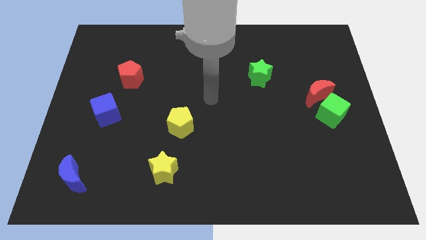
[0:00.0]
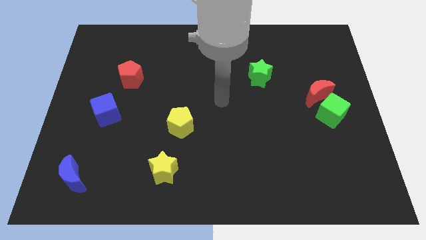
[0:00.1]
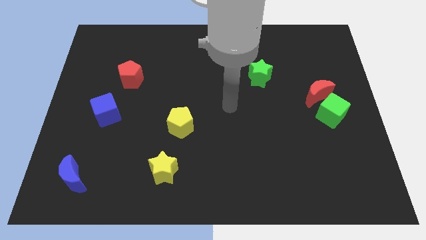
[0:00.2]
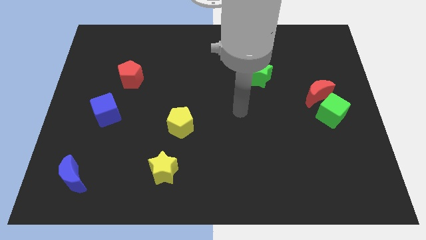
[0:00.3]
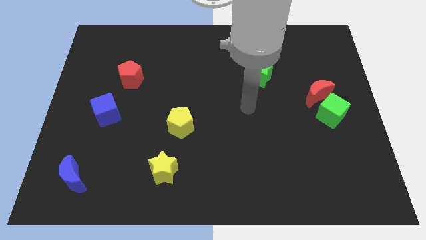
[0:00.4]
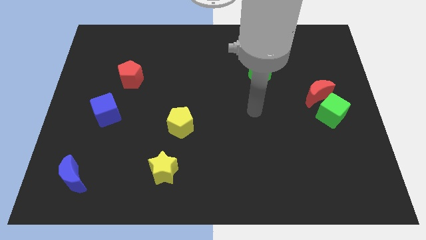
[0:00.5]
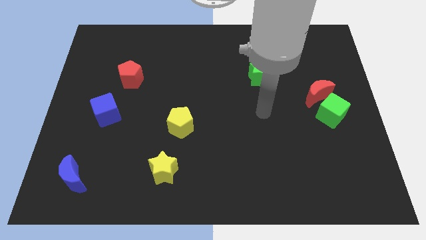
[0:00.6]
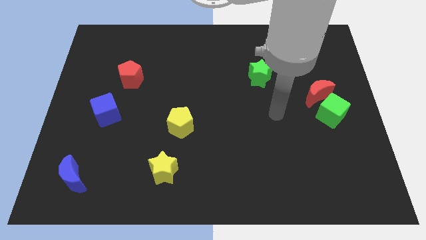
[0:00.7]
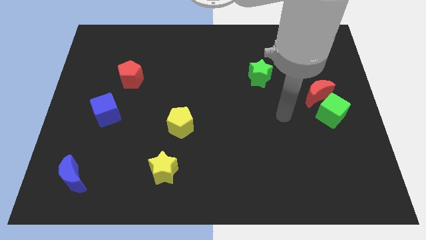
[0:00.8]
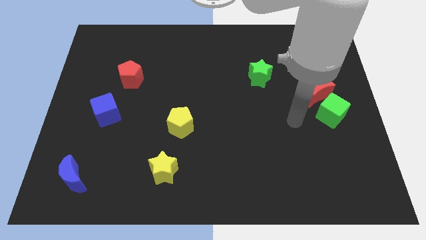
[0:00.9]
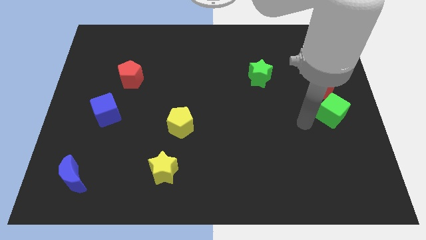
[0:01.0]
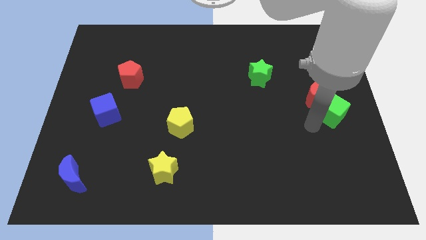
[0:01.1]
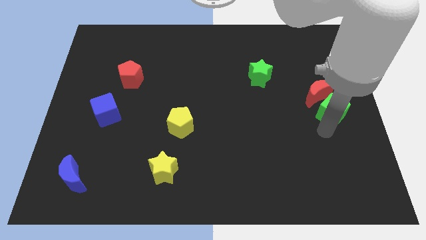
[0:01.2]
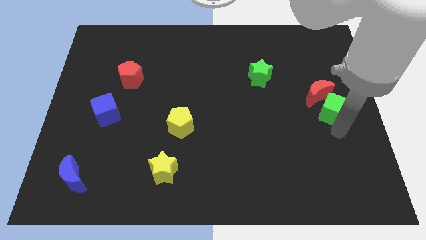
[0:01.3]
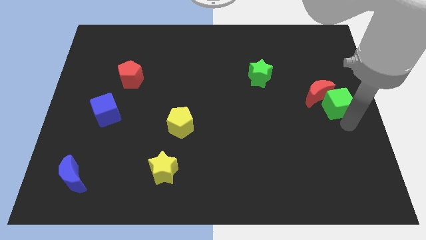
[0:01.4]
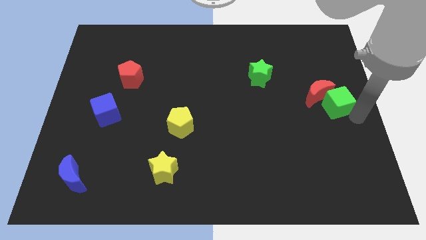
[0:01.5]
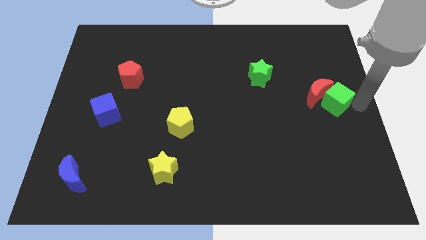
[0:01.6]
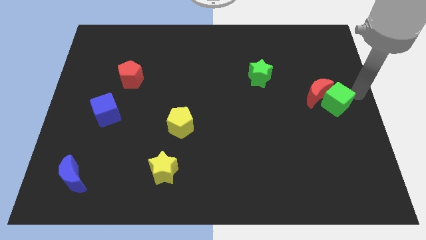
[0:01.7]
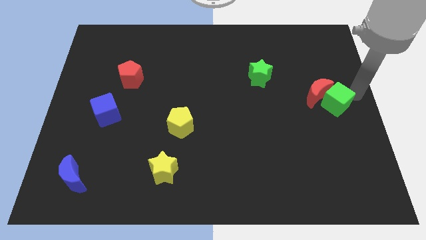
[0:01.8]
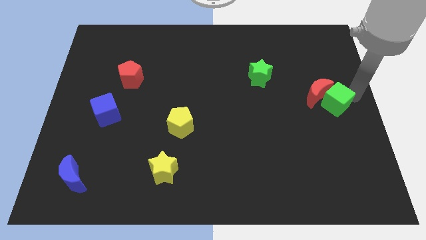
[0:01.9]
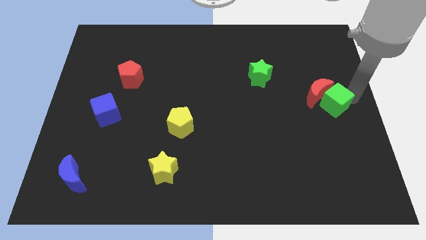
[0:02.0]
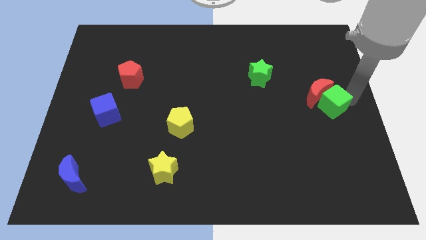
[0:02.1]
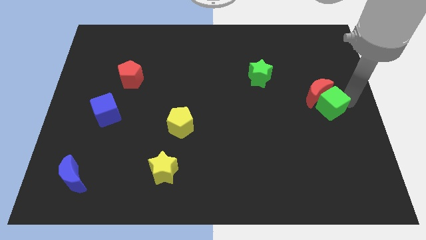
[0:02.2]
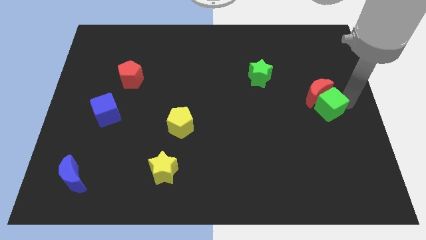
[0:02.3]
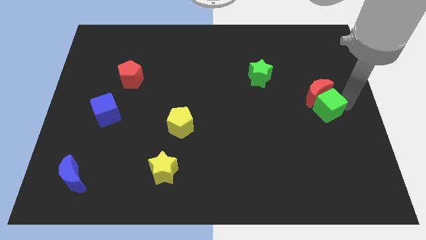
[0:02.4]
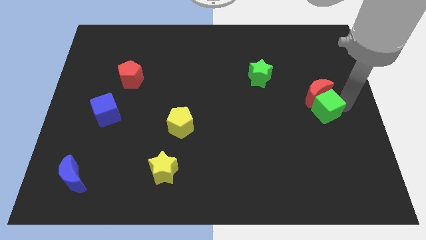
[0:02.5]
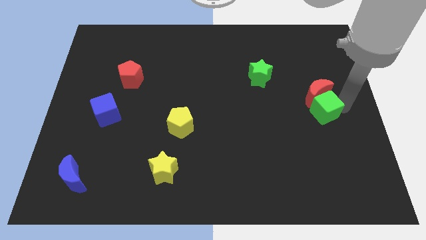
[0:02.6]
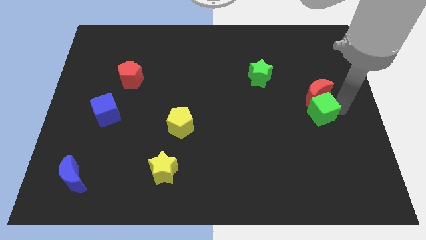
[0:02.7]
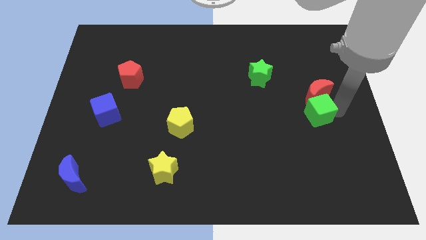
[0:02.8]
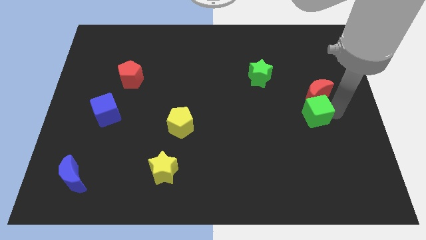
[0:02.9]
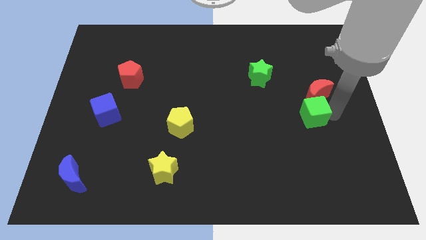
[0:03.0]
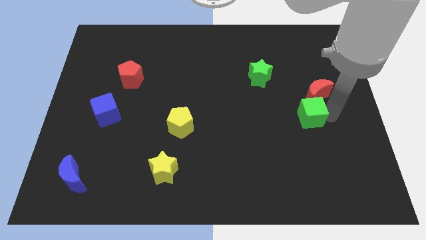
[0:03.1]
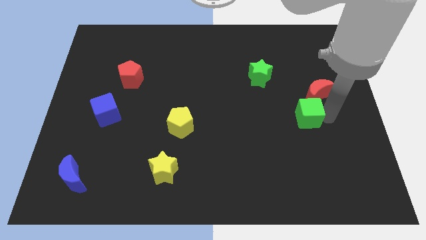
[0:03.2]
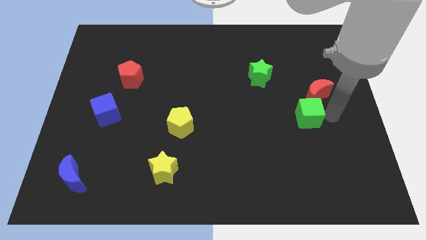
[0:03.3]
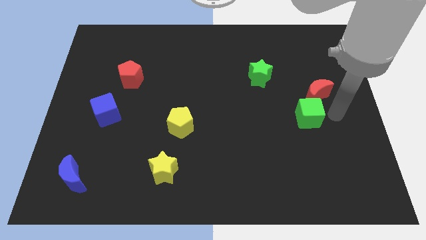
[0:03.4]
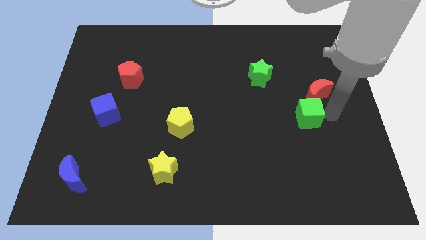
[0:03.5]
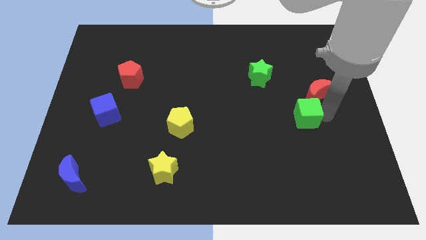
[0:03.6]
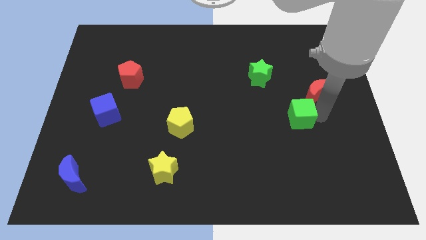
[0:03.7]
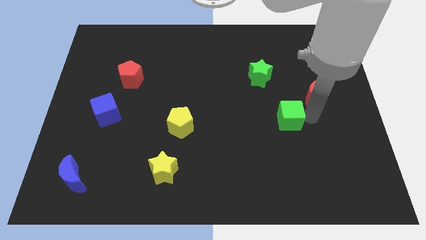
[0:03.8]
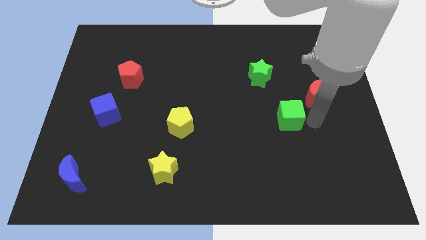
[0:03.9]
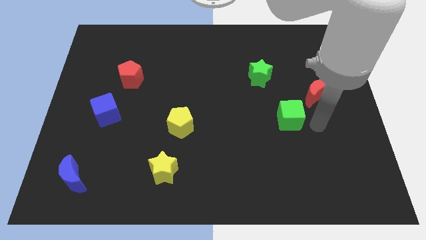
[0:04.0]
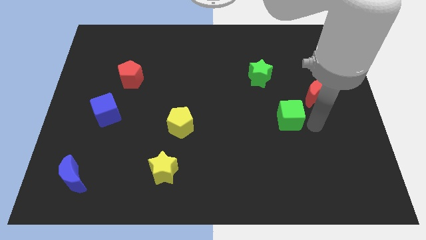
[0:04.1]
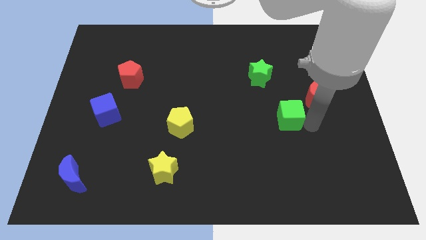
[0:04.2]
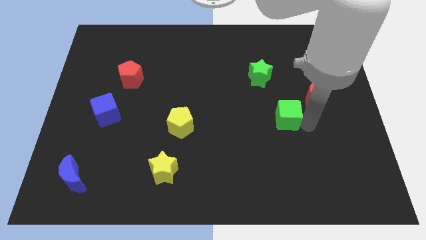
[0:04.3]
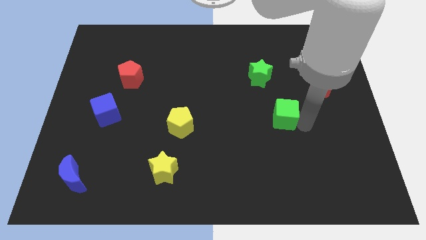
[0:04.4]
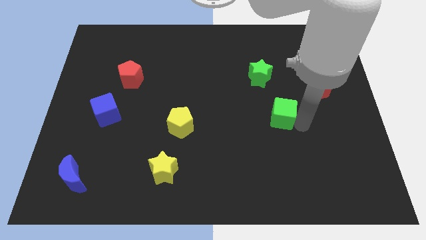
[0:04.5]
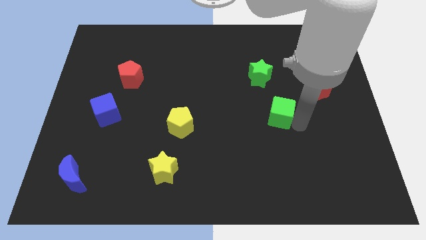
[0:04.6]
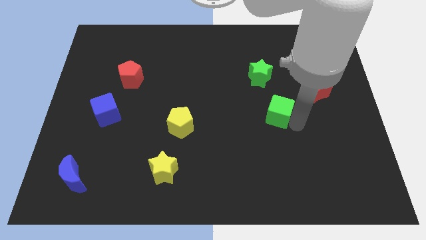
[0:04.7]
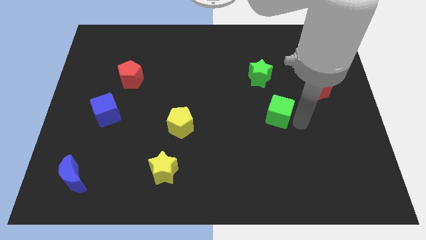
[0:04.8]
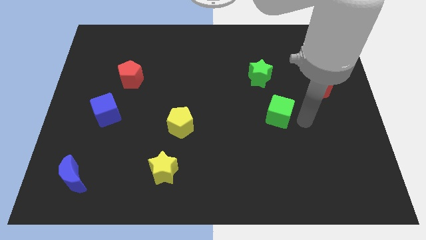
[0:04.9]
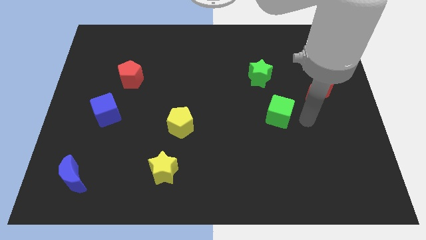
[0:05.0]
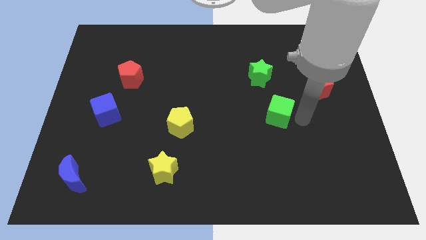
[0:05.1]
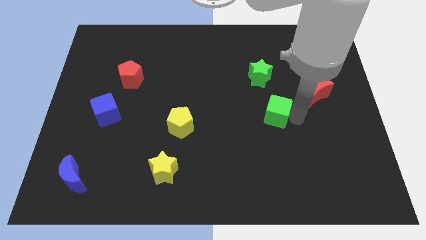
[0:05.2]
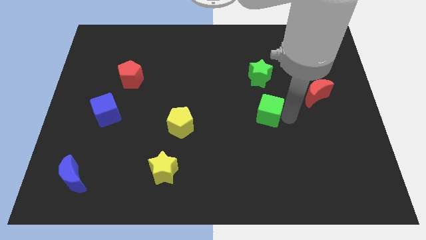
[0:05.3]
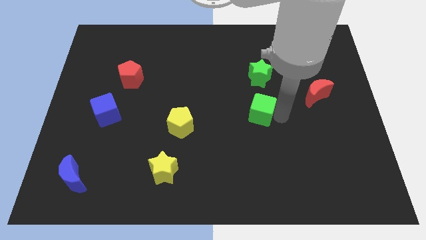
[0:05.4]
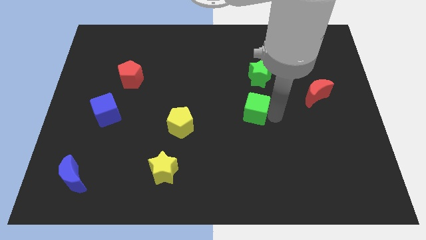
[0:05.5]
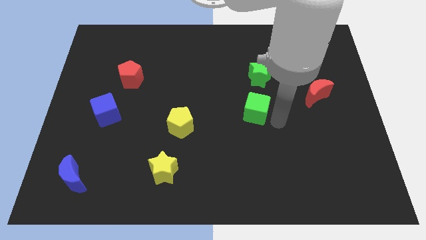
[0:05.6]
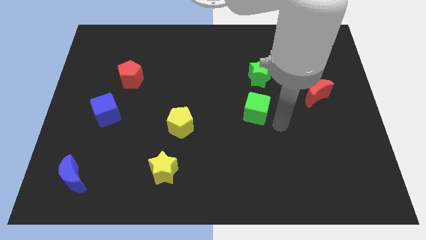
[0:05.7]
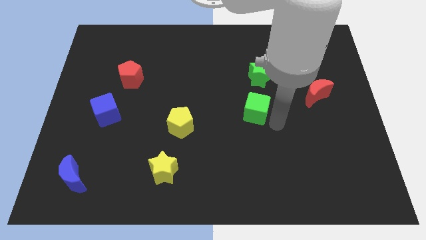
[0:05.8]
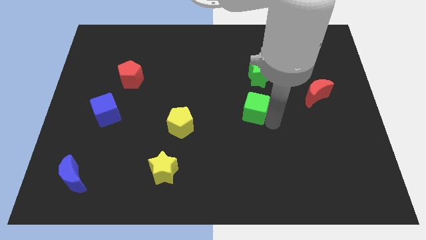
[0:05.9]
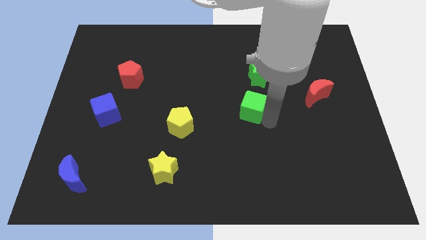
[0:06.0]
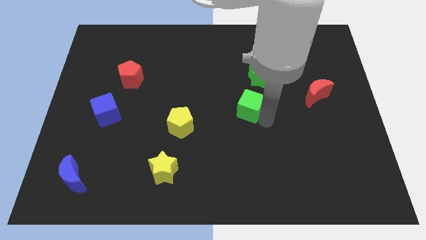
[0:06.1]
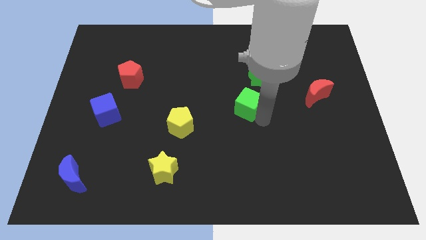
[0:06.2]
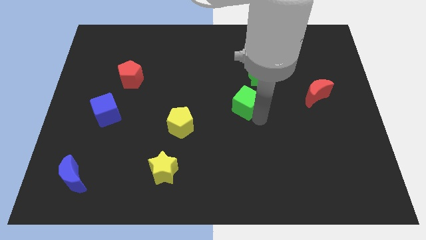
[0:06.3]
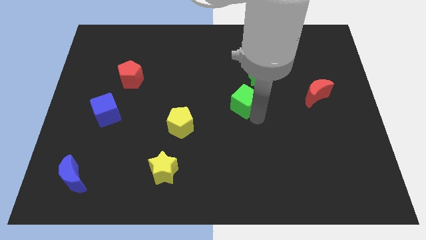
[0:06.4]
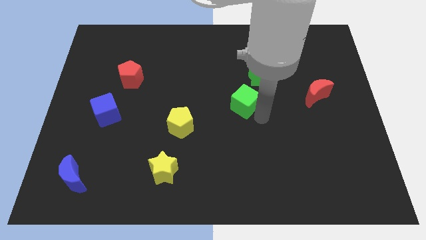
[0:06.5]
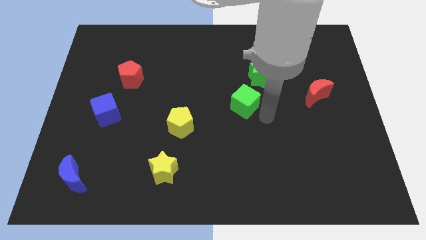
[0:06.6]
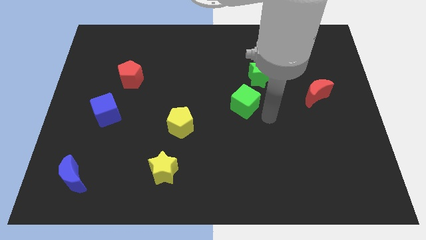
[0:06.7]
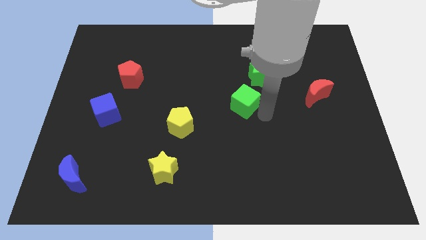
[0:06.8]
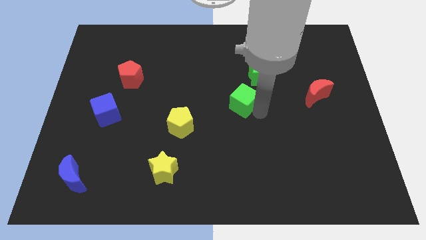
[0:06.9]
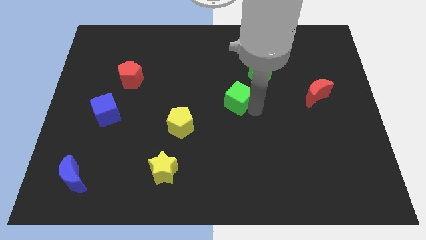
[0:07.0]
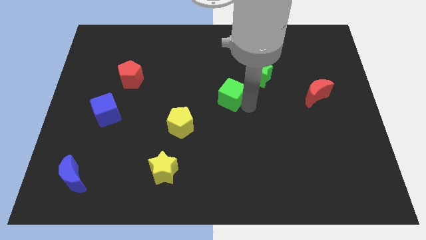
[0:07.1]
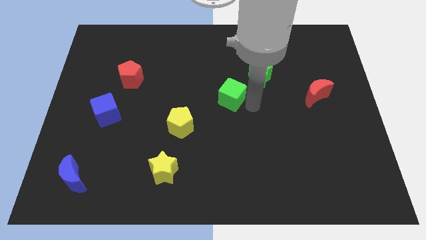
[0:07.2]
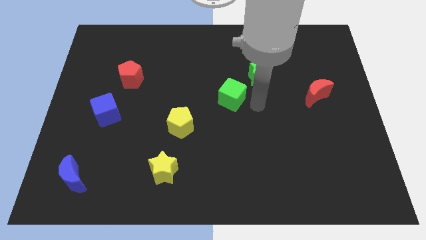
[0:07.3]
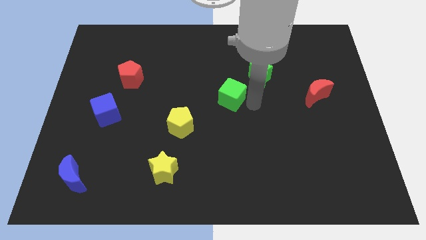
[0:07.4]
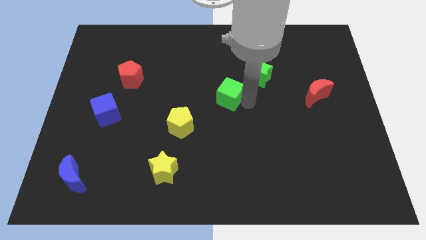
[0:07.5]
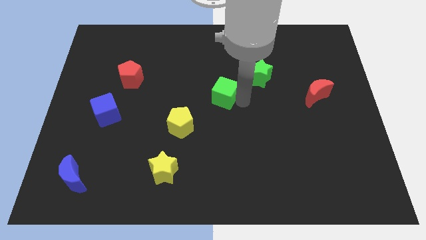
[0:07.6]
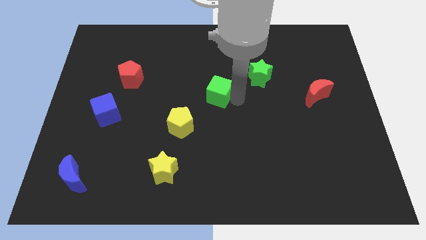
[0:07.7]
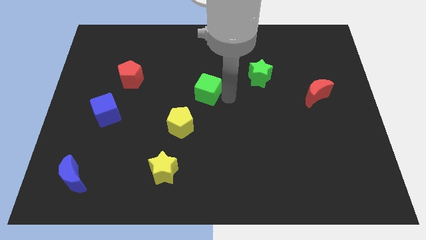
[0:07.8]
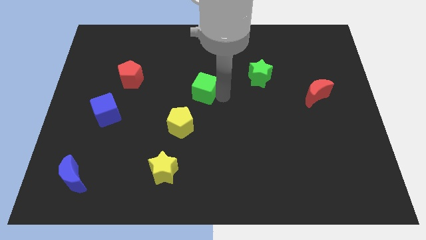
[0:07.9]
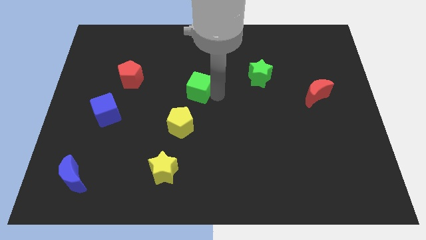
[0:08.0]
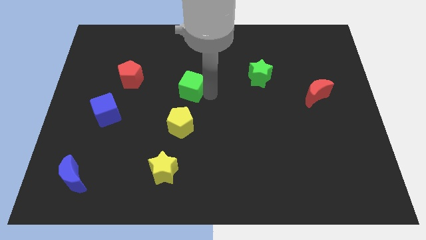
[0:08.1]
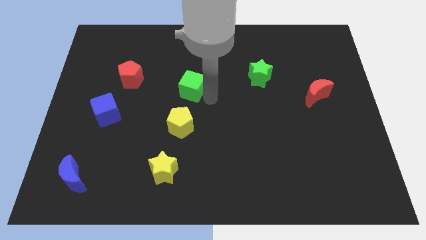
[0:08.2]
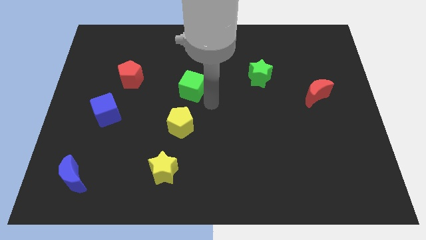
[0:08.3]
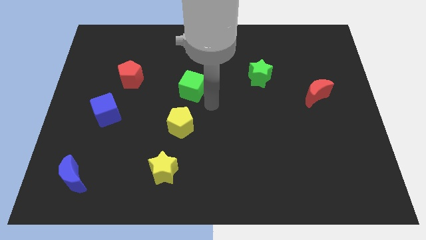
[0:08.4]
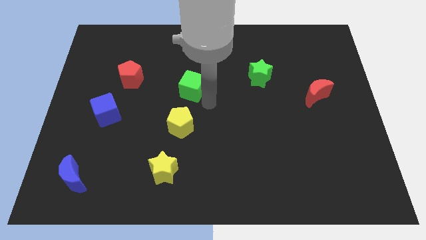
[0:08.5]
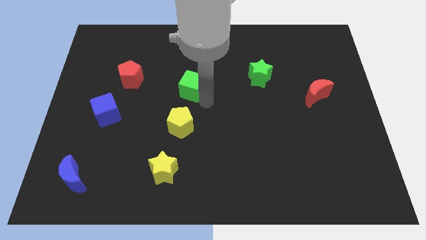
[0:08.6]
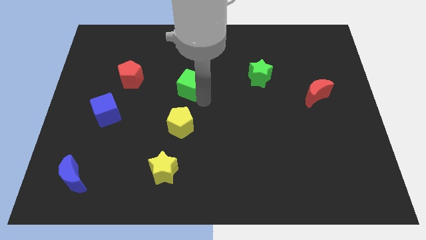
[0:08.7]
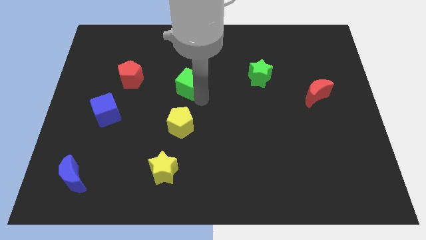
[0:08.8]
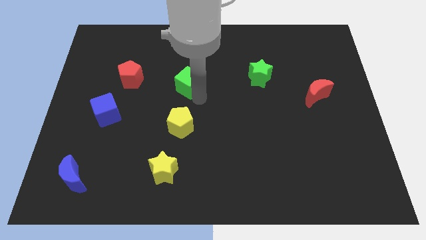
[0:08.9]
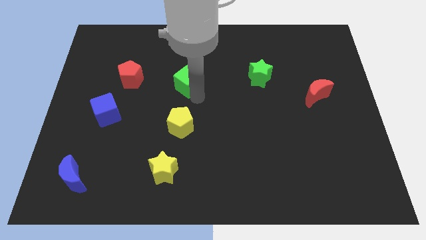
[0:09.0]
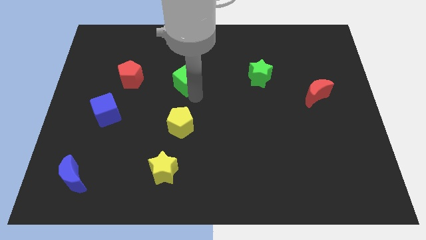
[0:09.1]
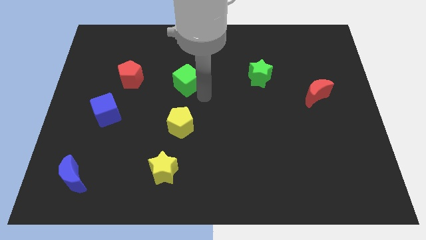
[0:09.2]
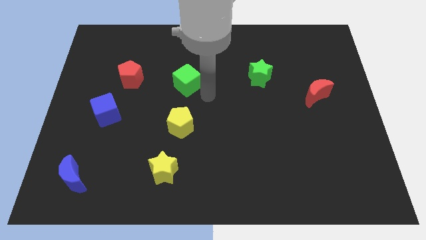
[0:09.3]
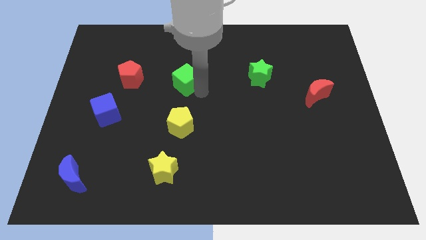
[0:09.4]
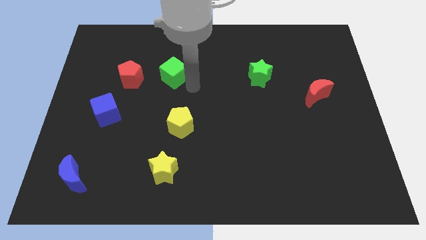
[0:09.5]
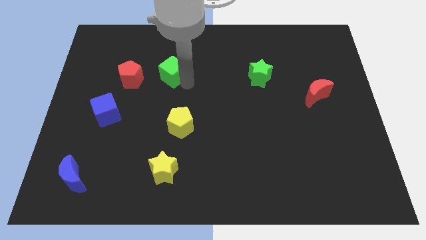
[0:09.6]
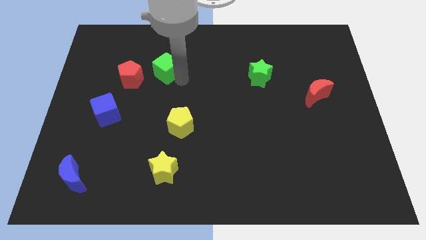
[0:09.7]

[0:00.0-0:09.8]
push the green cube to the top right of the red pentagon
